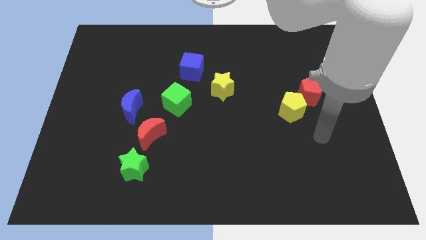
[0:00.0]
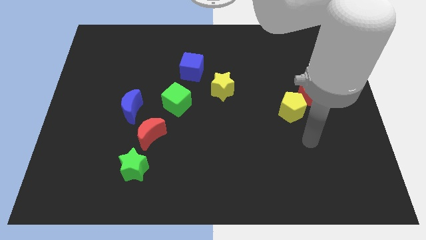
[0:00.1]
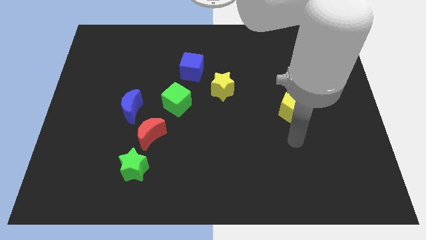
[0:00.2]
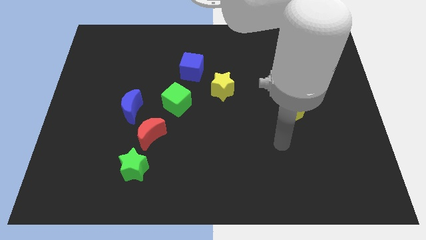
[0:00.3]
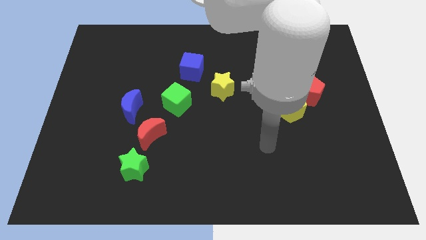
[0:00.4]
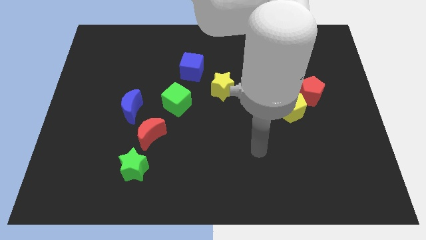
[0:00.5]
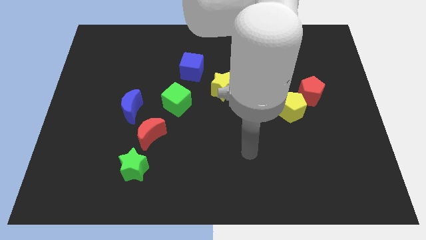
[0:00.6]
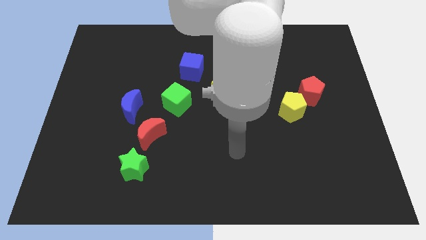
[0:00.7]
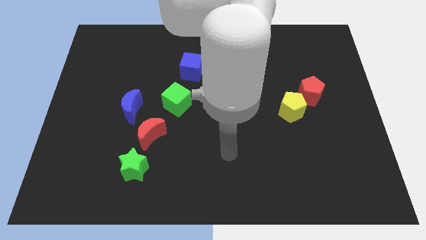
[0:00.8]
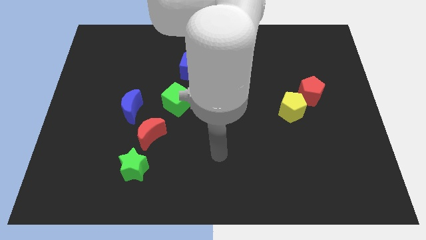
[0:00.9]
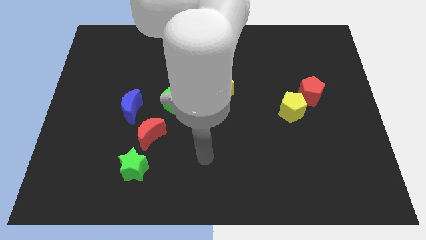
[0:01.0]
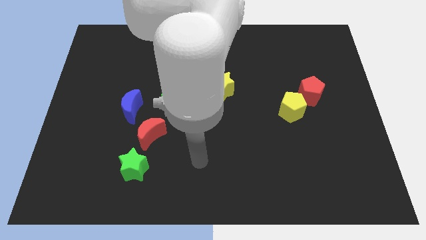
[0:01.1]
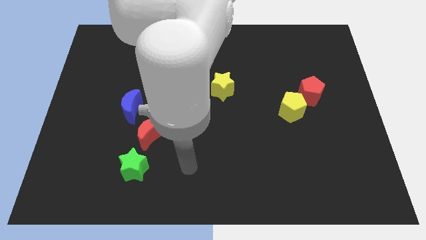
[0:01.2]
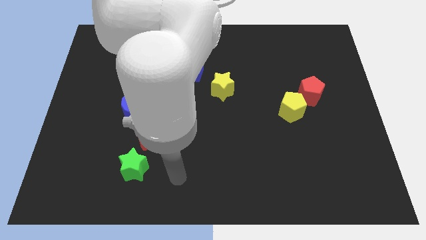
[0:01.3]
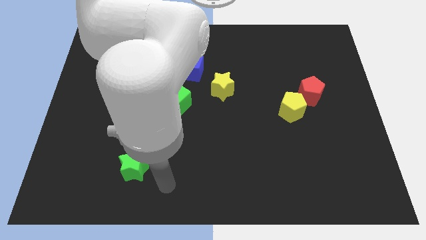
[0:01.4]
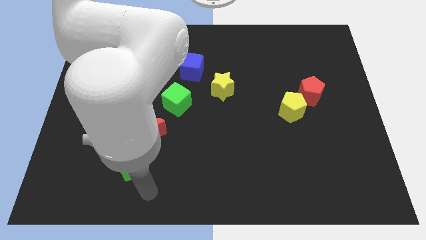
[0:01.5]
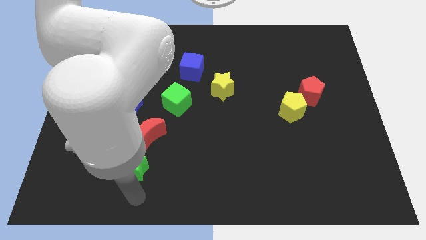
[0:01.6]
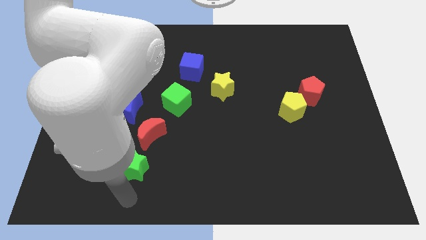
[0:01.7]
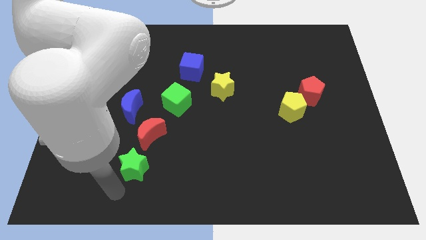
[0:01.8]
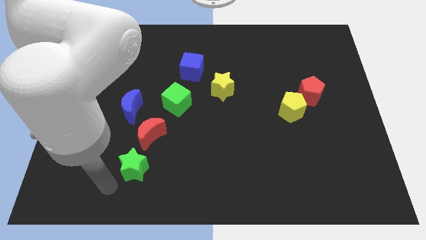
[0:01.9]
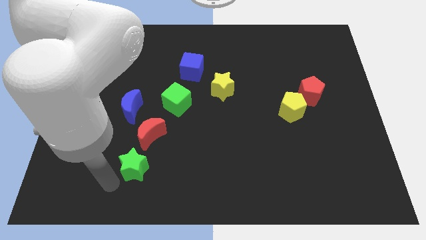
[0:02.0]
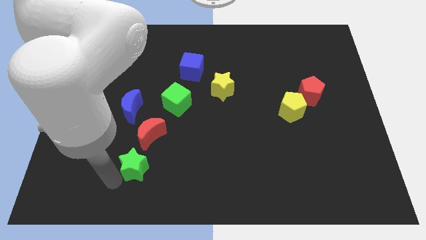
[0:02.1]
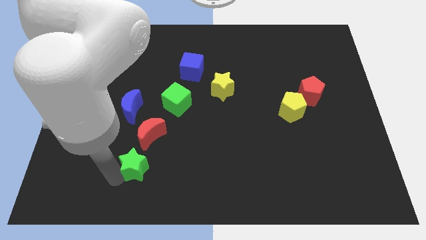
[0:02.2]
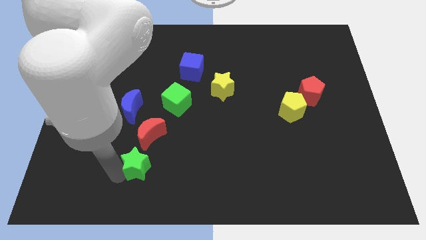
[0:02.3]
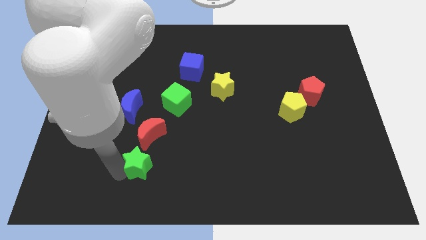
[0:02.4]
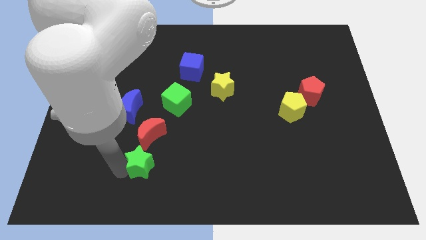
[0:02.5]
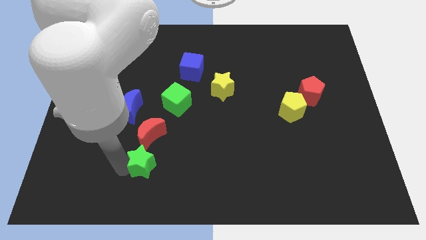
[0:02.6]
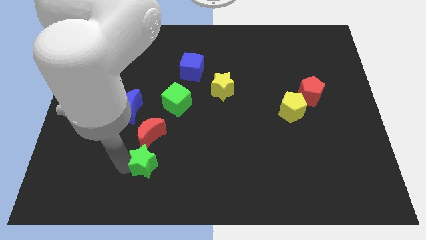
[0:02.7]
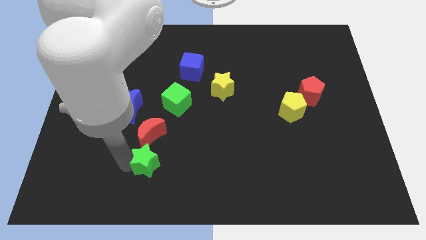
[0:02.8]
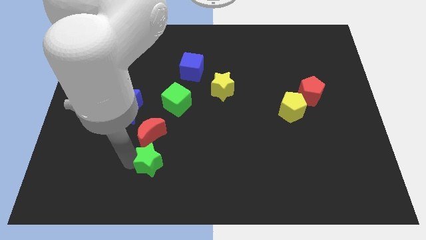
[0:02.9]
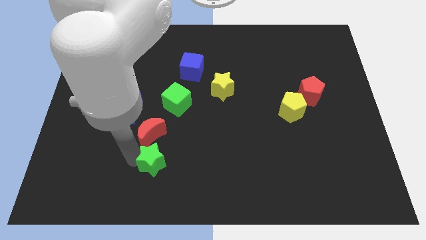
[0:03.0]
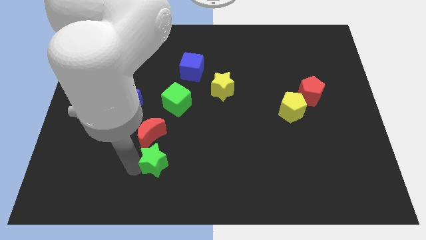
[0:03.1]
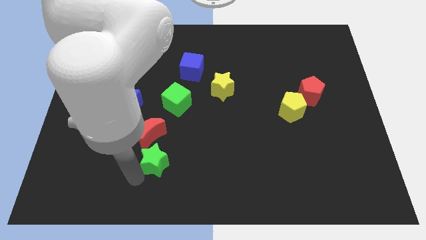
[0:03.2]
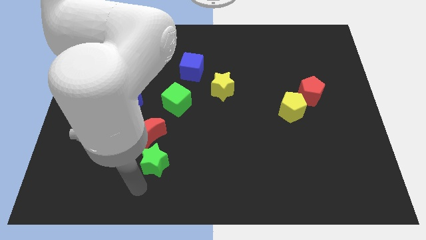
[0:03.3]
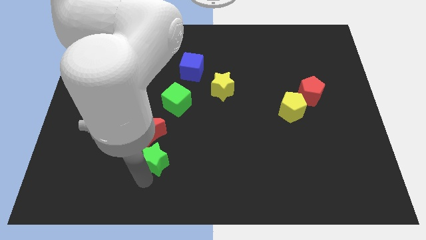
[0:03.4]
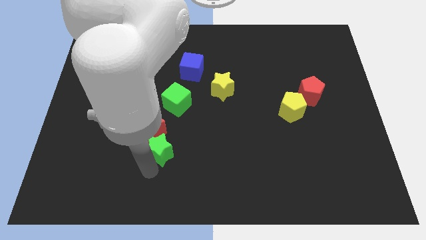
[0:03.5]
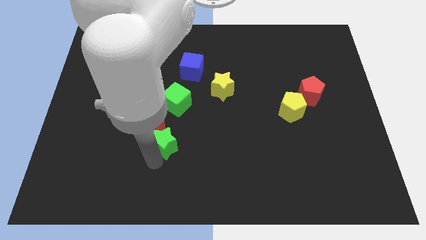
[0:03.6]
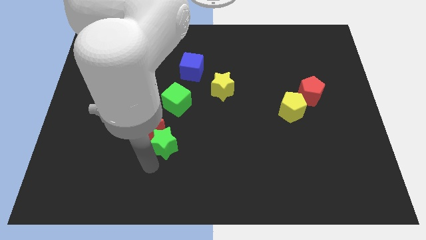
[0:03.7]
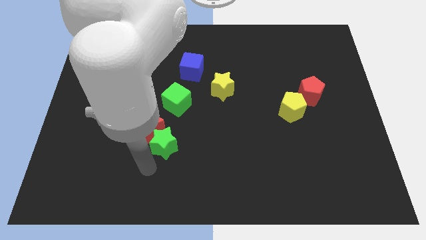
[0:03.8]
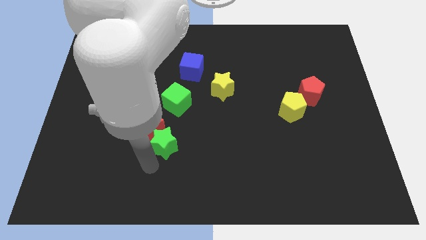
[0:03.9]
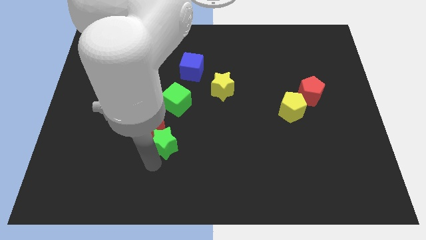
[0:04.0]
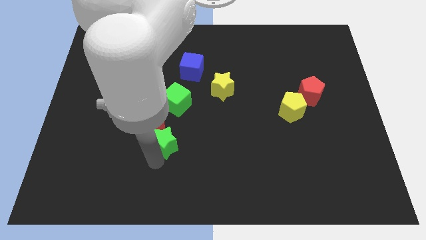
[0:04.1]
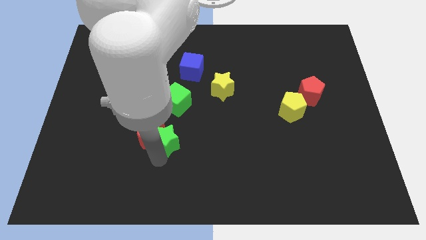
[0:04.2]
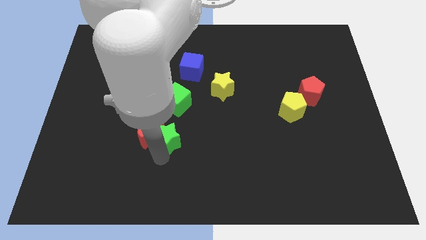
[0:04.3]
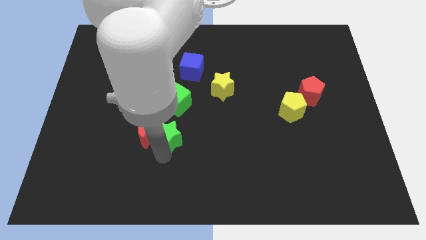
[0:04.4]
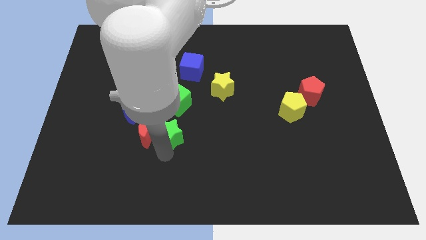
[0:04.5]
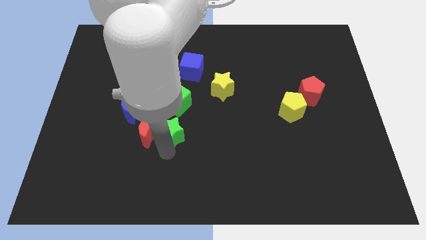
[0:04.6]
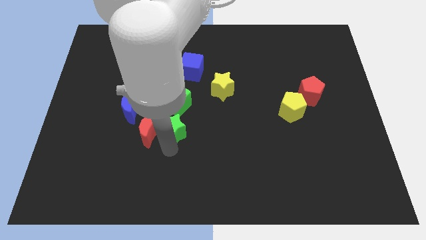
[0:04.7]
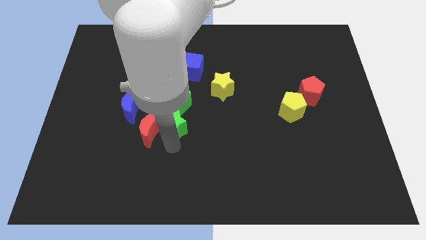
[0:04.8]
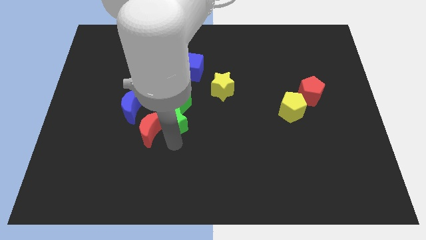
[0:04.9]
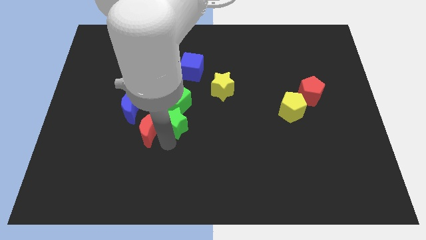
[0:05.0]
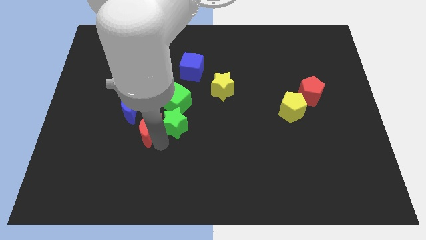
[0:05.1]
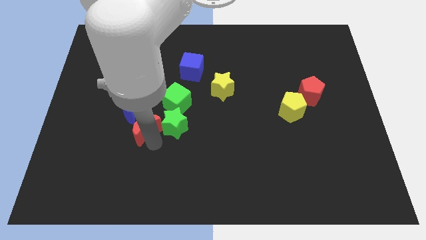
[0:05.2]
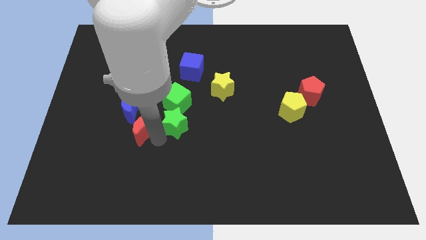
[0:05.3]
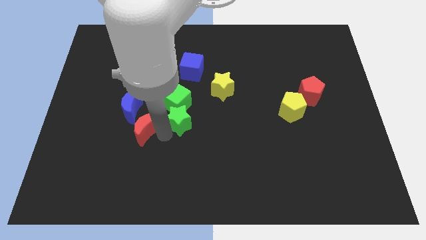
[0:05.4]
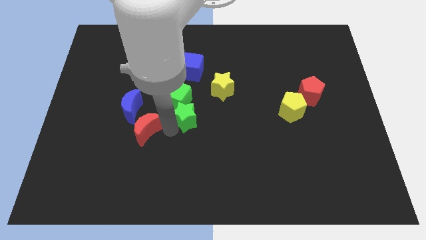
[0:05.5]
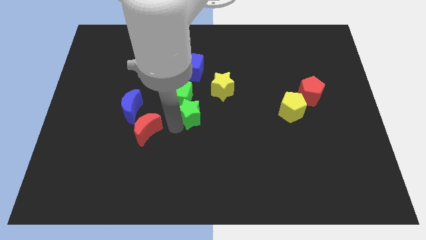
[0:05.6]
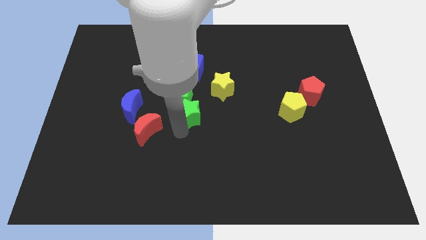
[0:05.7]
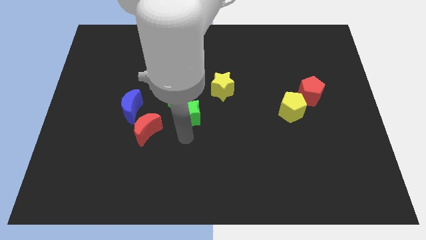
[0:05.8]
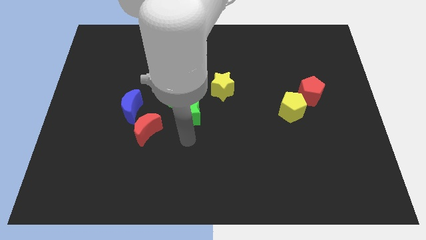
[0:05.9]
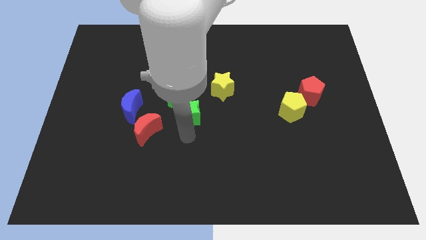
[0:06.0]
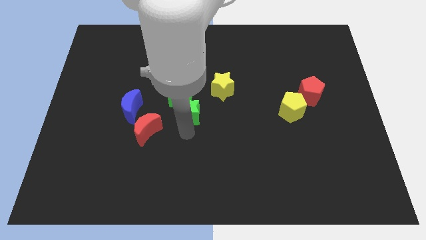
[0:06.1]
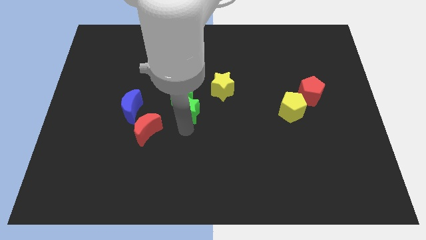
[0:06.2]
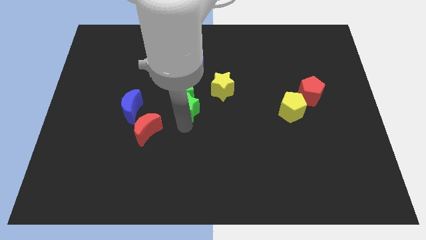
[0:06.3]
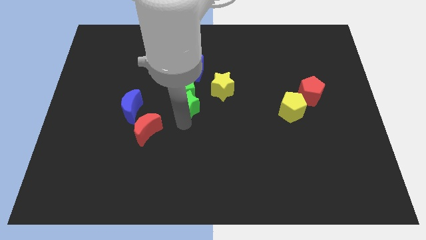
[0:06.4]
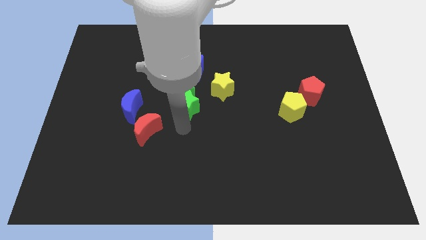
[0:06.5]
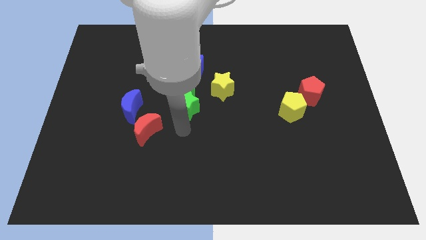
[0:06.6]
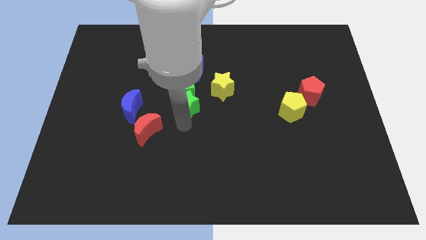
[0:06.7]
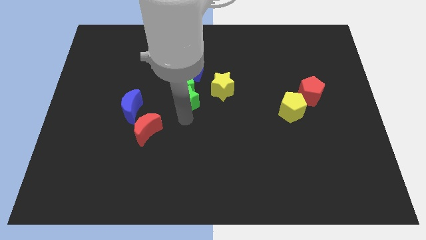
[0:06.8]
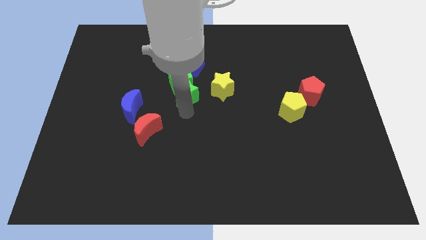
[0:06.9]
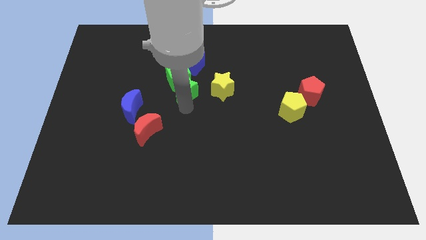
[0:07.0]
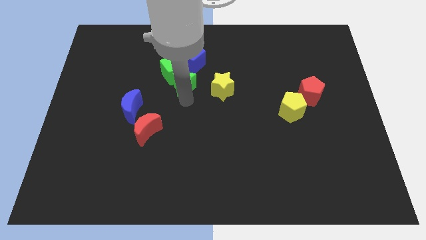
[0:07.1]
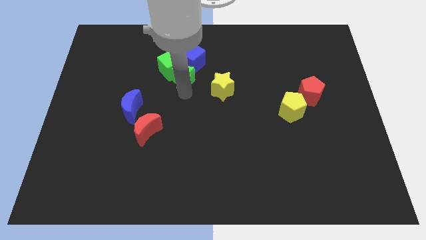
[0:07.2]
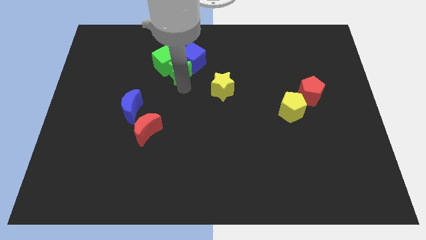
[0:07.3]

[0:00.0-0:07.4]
move the green star towards the blue cube
